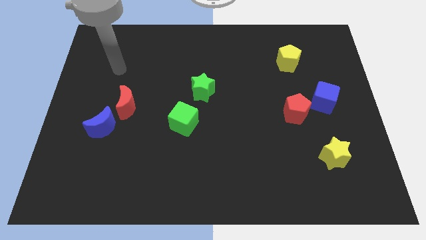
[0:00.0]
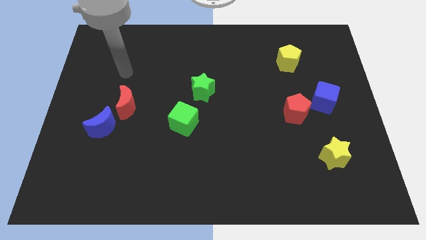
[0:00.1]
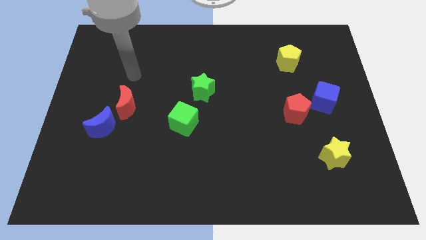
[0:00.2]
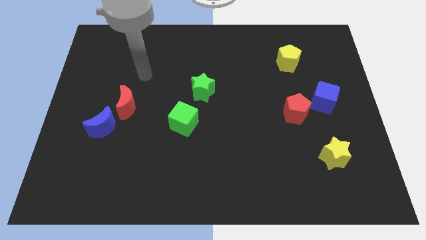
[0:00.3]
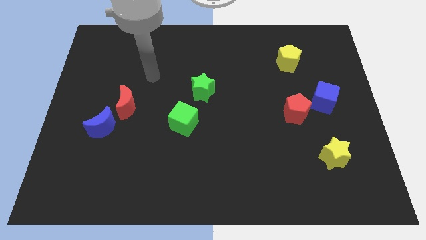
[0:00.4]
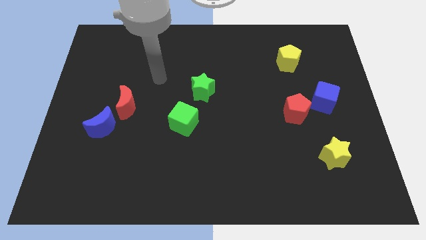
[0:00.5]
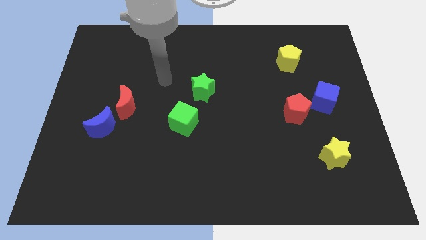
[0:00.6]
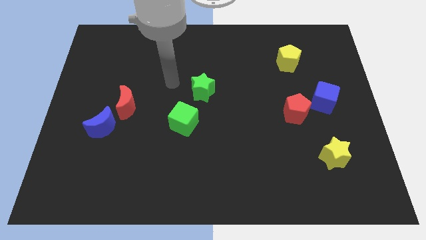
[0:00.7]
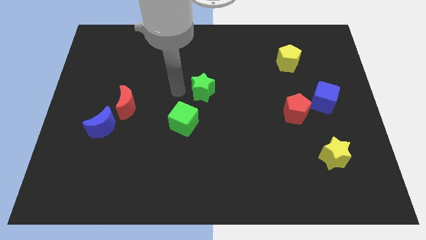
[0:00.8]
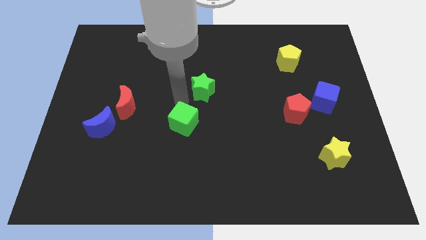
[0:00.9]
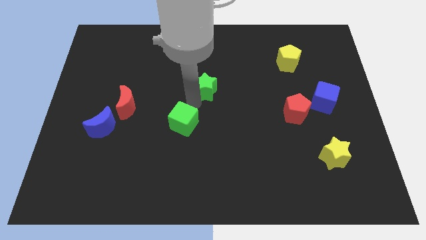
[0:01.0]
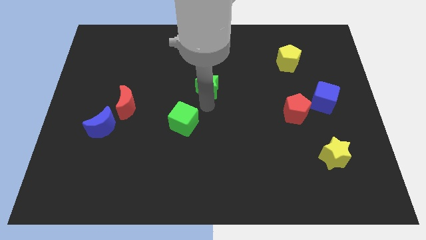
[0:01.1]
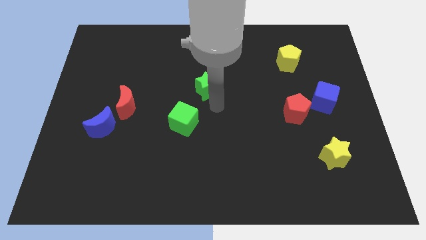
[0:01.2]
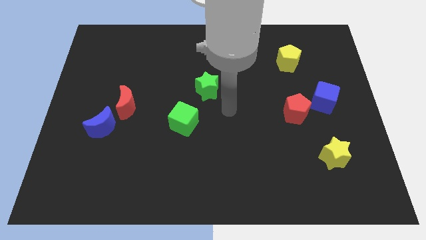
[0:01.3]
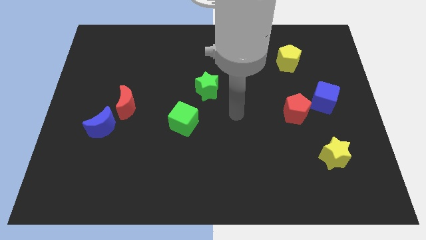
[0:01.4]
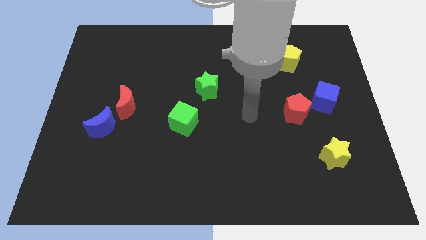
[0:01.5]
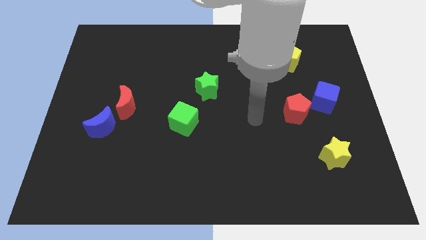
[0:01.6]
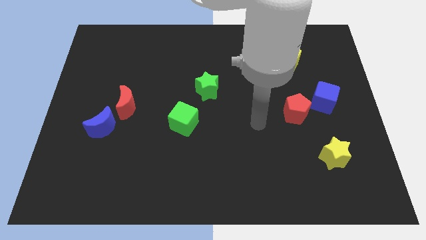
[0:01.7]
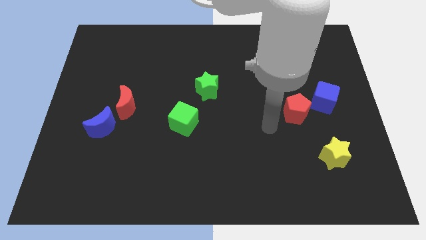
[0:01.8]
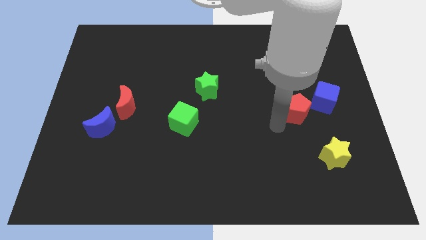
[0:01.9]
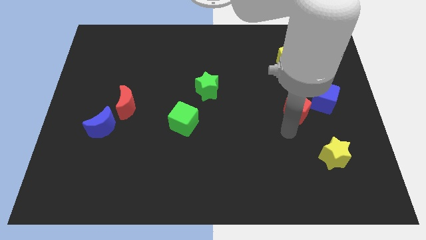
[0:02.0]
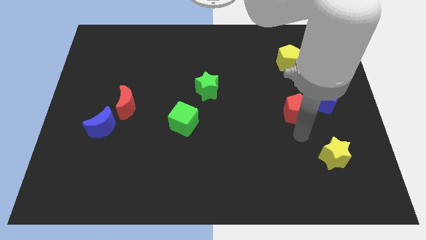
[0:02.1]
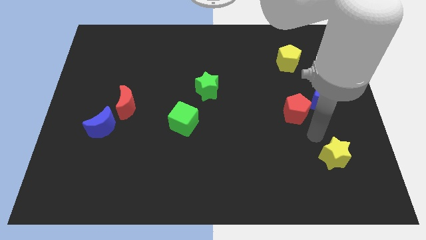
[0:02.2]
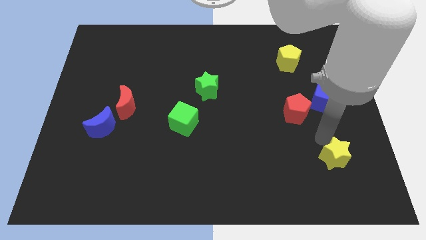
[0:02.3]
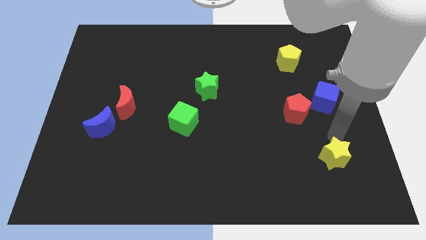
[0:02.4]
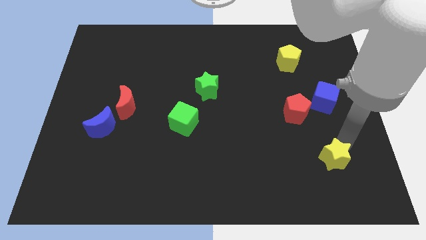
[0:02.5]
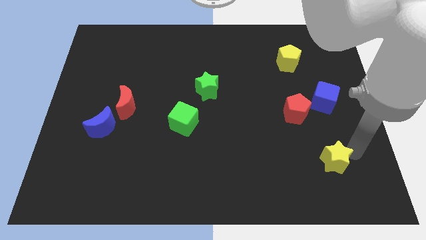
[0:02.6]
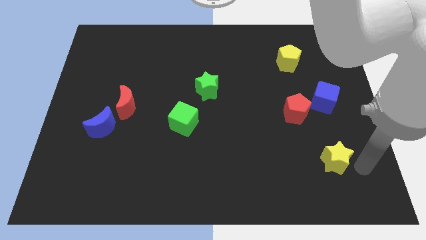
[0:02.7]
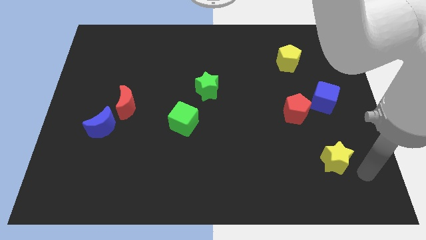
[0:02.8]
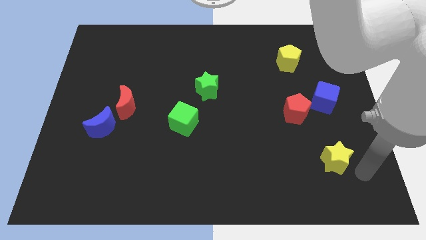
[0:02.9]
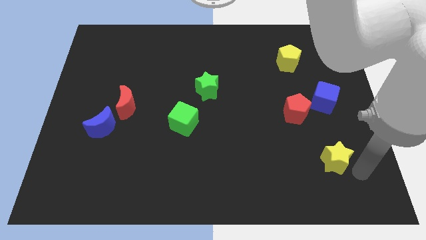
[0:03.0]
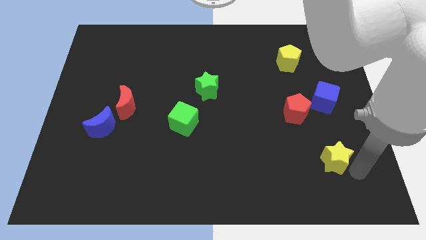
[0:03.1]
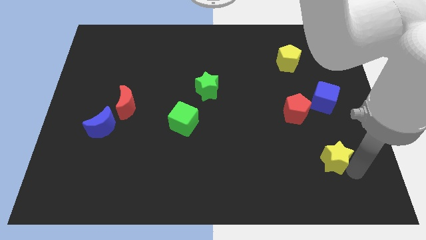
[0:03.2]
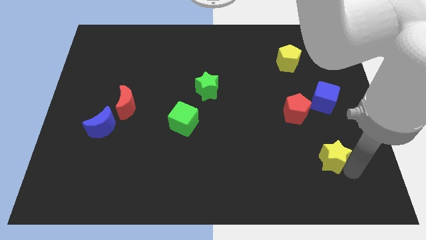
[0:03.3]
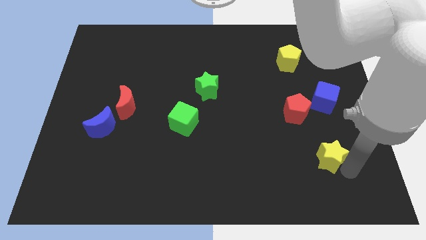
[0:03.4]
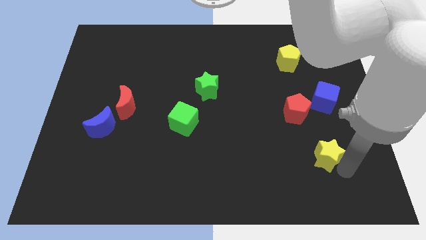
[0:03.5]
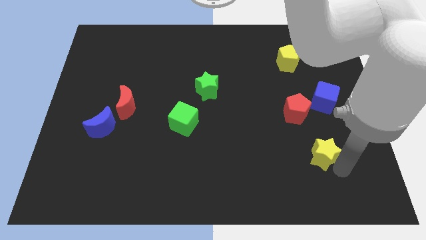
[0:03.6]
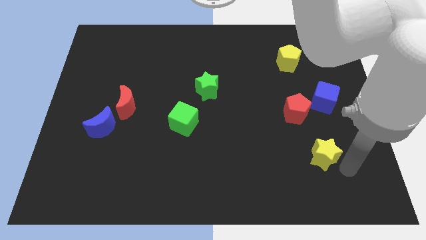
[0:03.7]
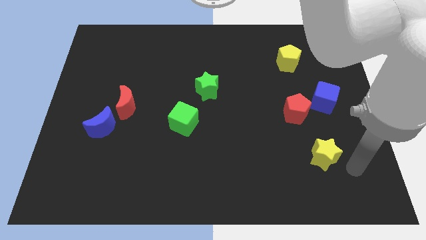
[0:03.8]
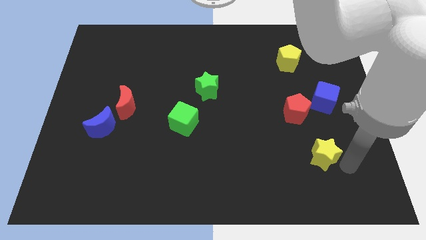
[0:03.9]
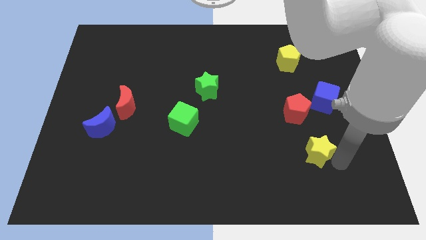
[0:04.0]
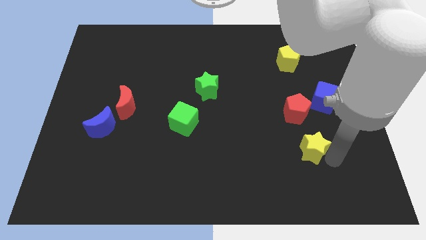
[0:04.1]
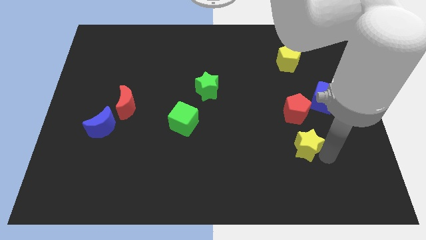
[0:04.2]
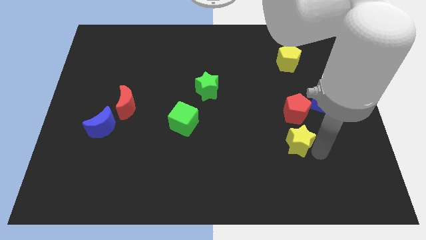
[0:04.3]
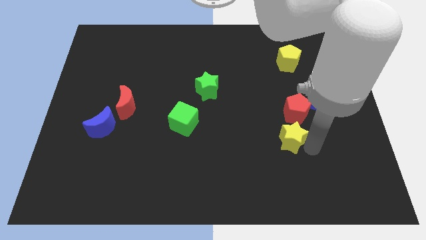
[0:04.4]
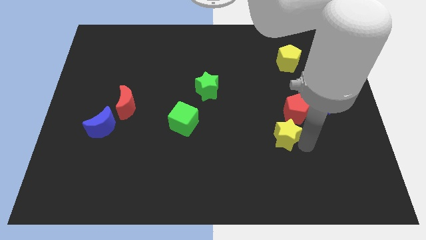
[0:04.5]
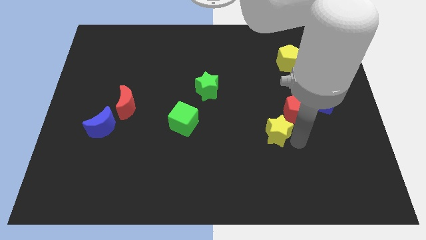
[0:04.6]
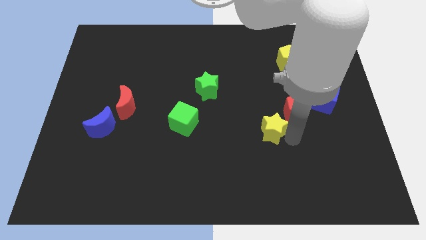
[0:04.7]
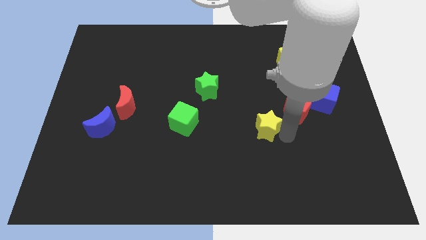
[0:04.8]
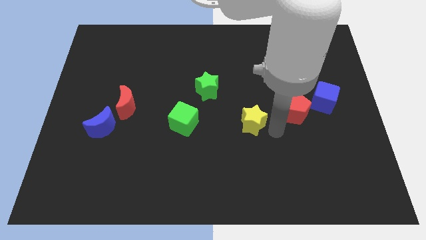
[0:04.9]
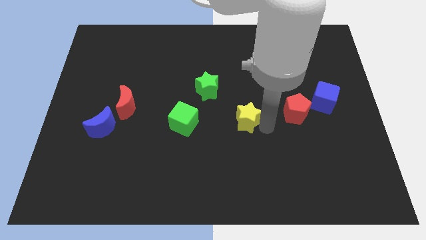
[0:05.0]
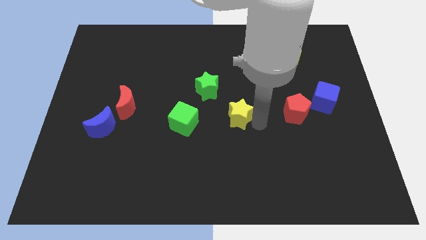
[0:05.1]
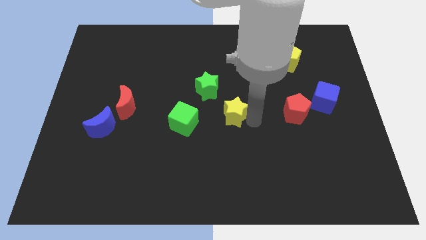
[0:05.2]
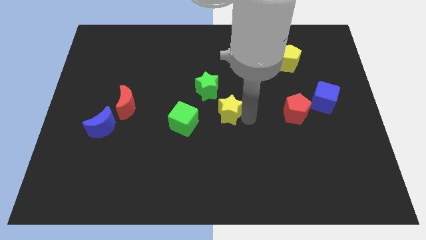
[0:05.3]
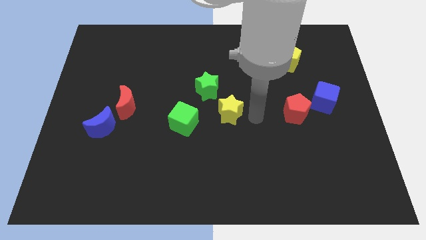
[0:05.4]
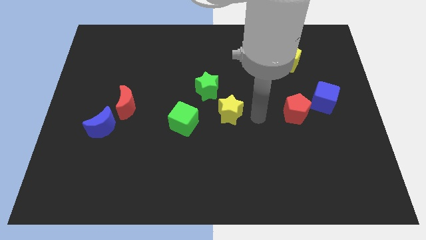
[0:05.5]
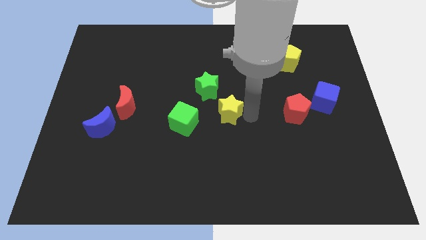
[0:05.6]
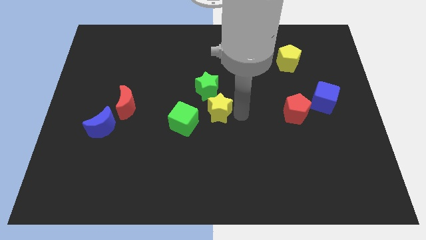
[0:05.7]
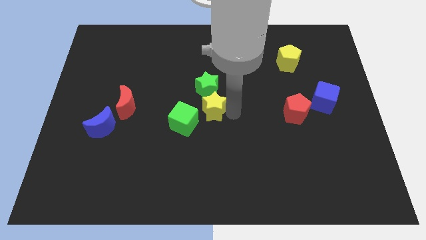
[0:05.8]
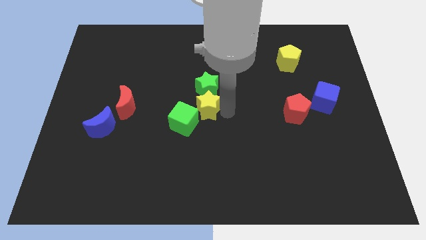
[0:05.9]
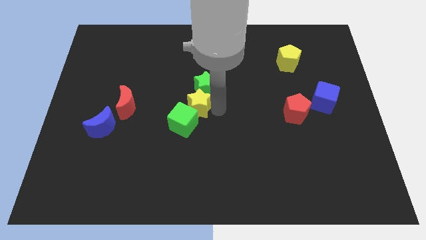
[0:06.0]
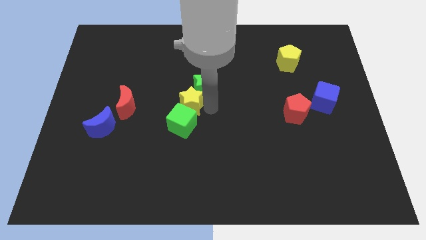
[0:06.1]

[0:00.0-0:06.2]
move the yellow star just right of the red moon

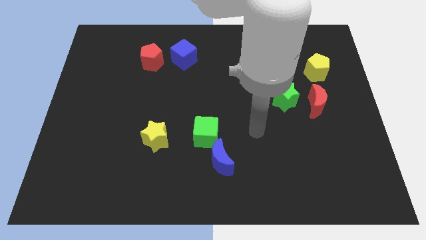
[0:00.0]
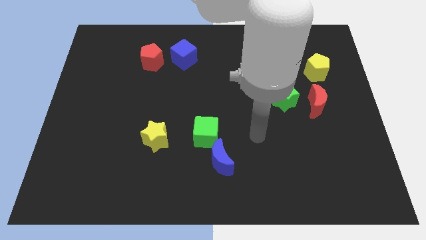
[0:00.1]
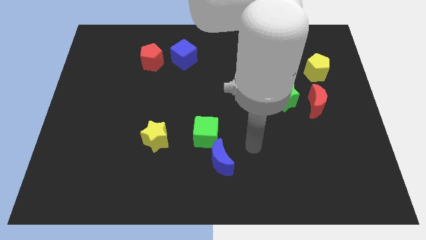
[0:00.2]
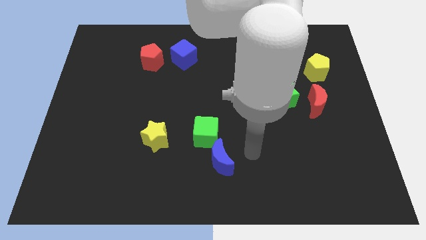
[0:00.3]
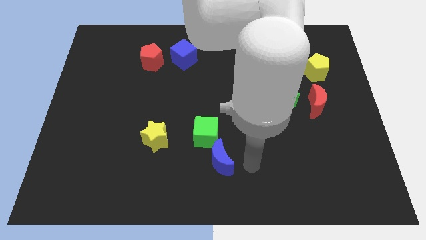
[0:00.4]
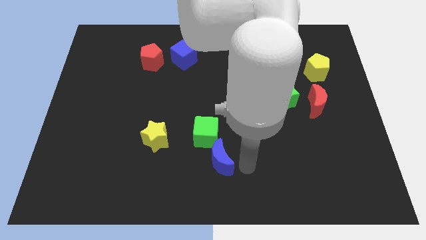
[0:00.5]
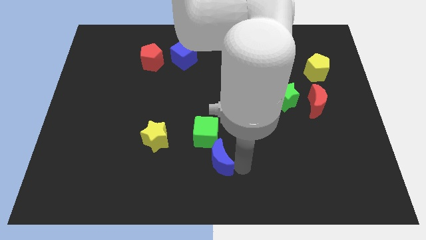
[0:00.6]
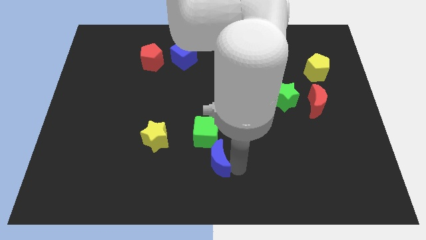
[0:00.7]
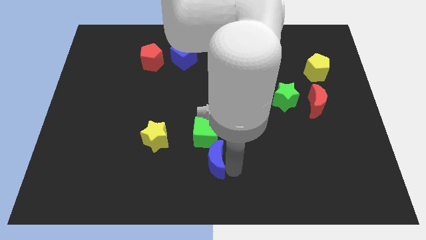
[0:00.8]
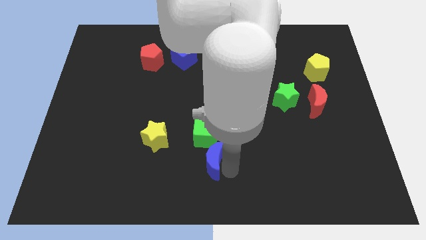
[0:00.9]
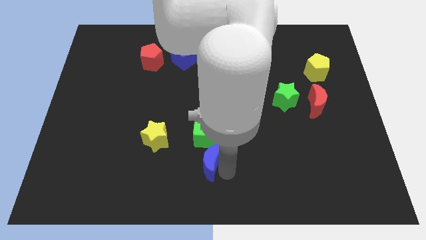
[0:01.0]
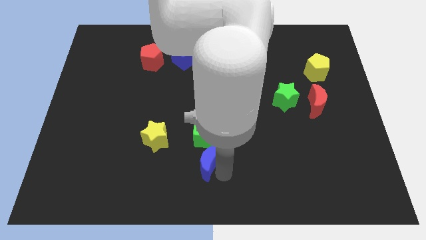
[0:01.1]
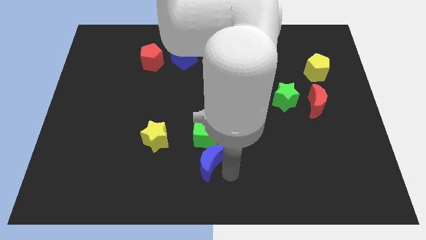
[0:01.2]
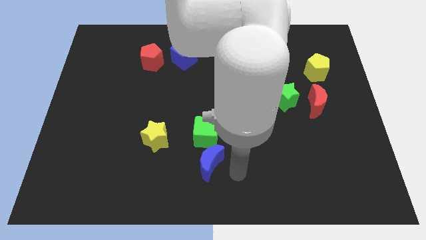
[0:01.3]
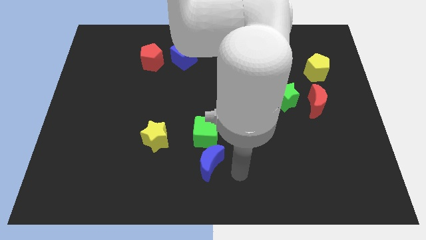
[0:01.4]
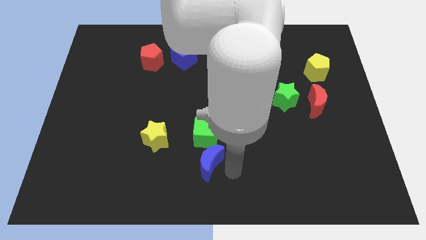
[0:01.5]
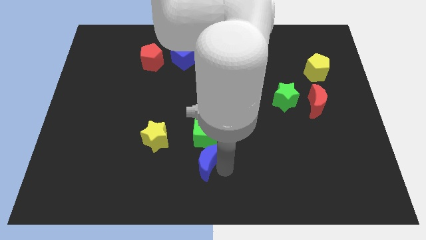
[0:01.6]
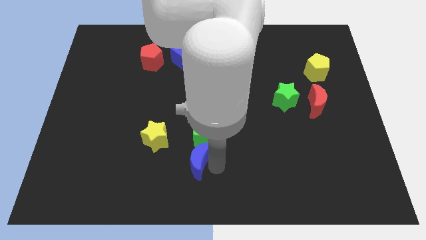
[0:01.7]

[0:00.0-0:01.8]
put the blue moon diagonally down and to the left of the green cube
